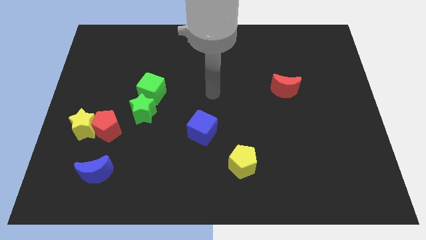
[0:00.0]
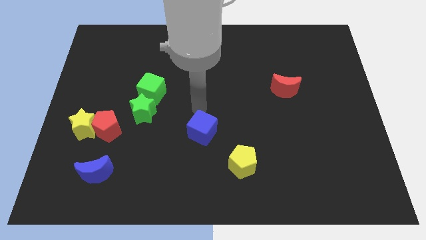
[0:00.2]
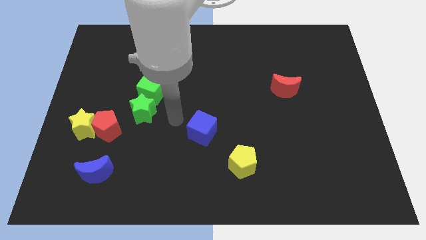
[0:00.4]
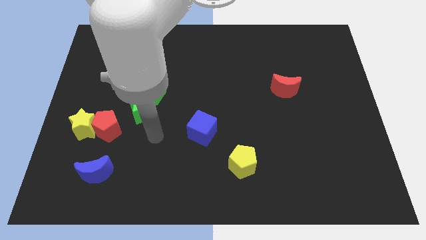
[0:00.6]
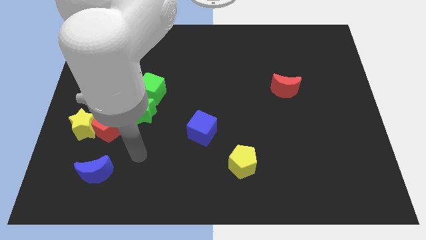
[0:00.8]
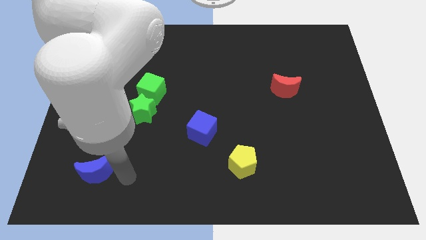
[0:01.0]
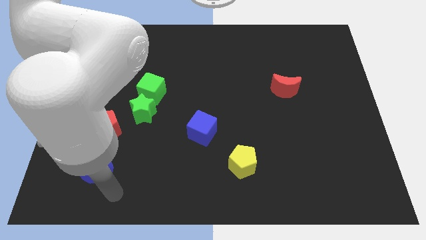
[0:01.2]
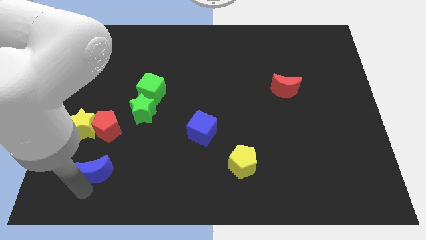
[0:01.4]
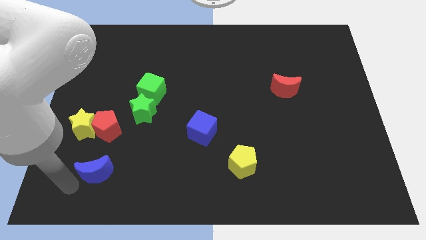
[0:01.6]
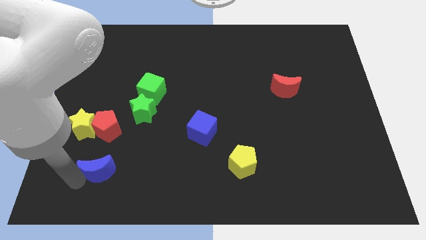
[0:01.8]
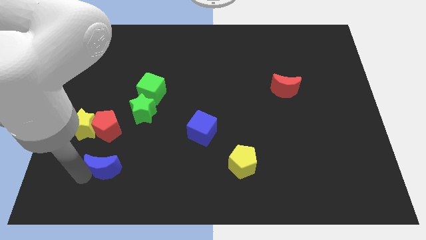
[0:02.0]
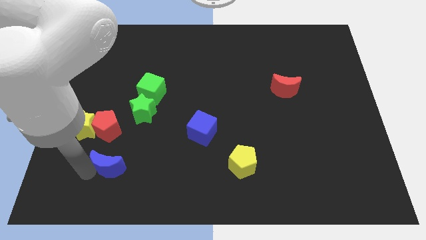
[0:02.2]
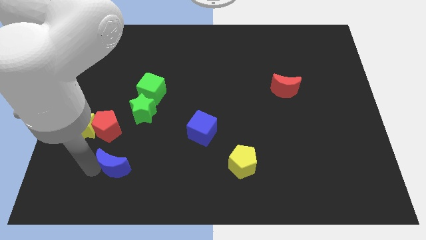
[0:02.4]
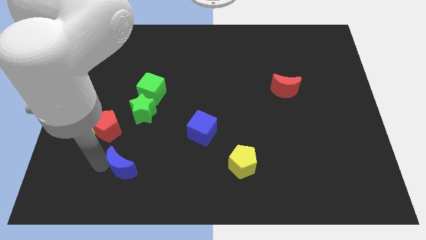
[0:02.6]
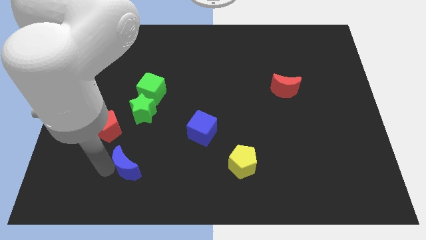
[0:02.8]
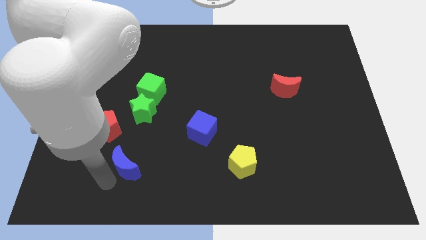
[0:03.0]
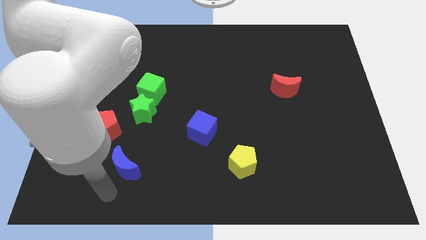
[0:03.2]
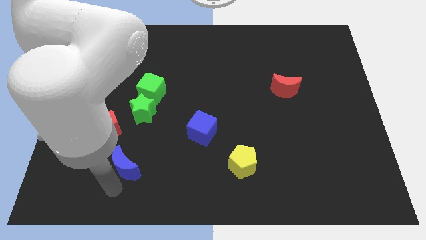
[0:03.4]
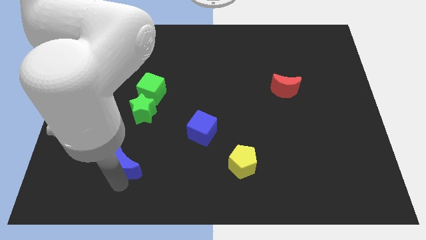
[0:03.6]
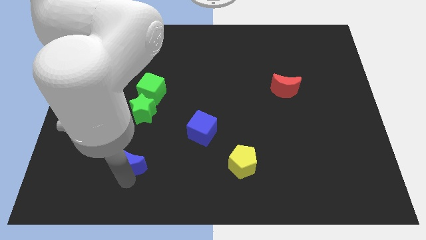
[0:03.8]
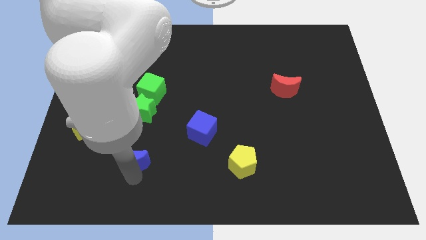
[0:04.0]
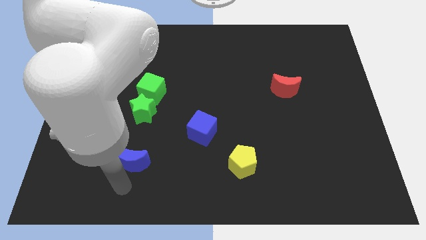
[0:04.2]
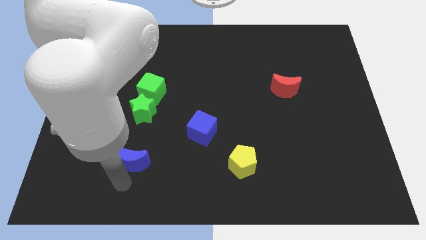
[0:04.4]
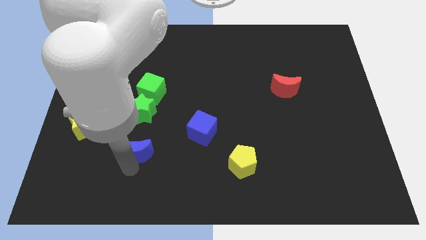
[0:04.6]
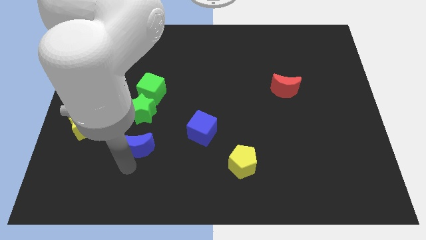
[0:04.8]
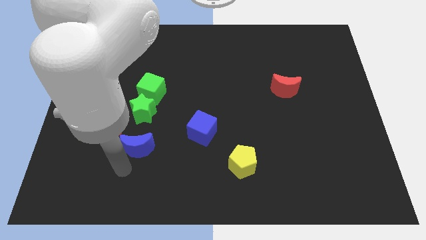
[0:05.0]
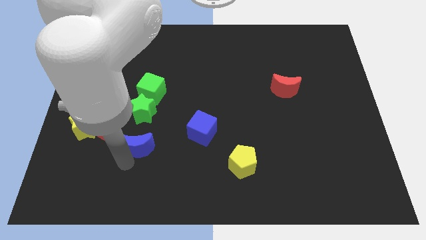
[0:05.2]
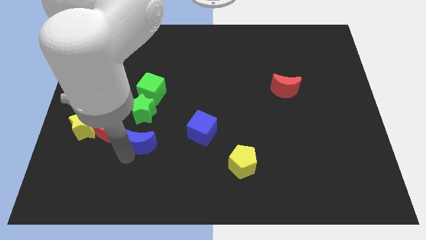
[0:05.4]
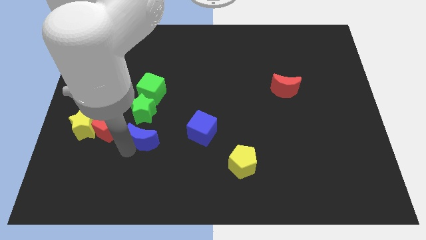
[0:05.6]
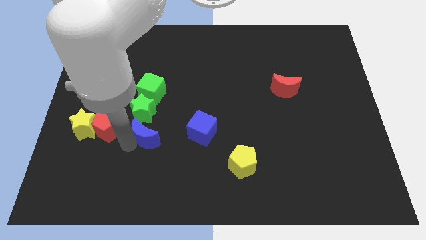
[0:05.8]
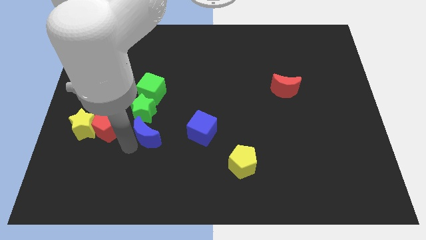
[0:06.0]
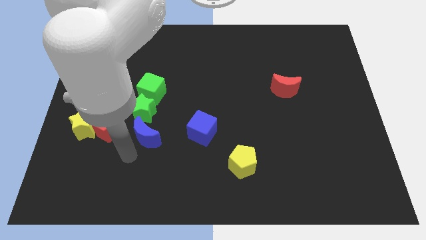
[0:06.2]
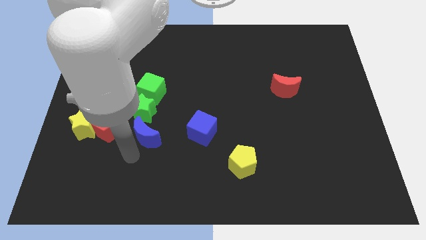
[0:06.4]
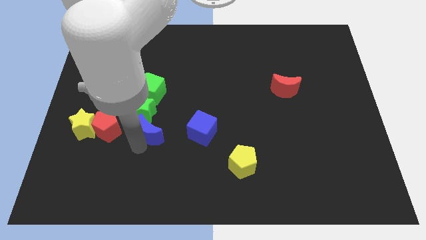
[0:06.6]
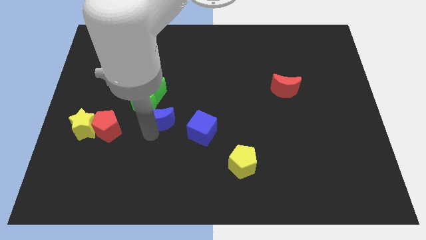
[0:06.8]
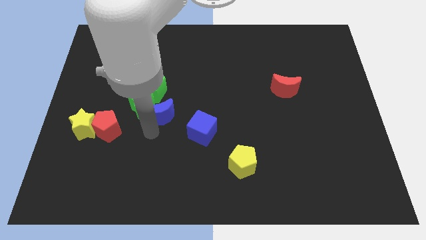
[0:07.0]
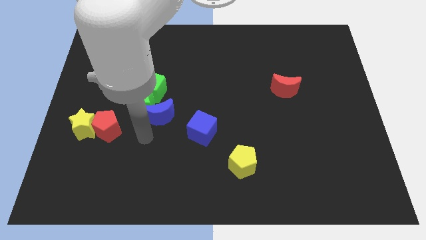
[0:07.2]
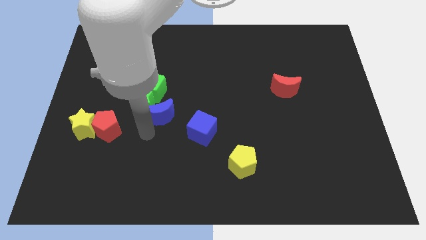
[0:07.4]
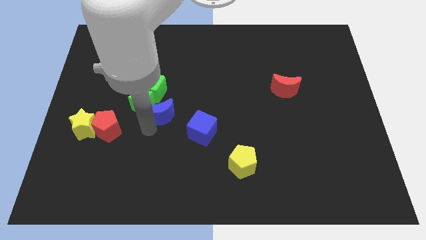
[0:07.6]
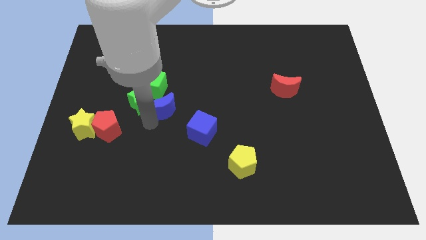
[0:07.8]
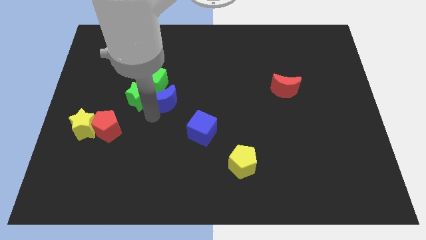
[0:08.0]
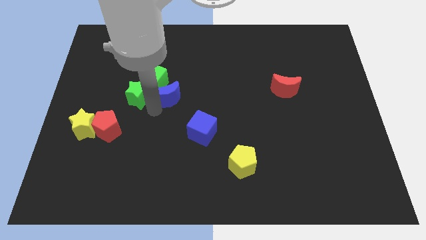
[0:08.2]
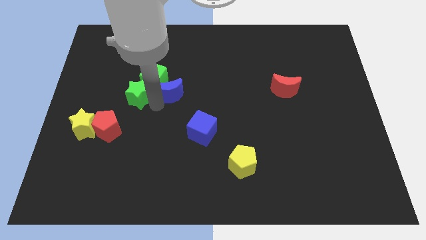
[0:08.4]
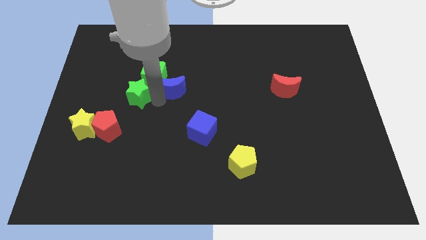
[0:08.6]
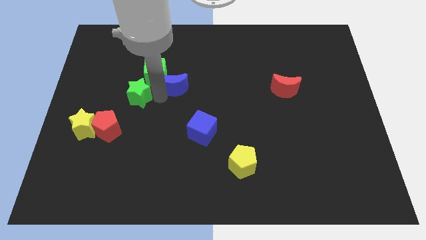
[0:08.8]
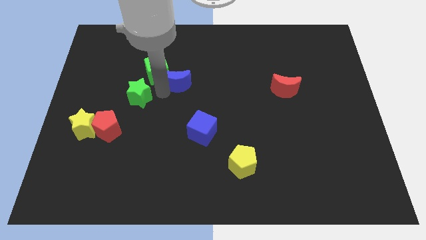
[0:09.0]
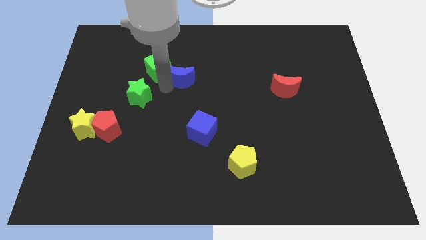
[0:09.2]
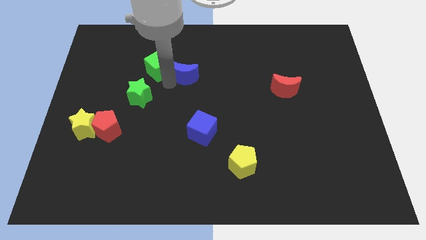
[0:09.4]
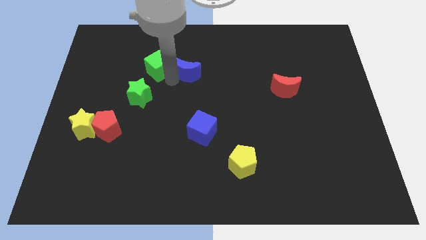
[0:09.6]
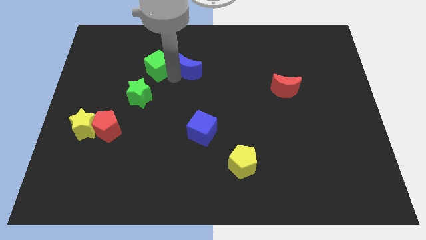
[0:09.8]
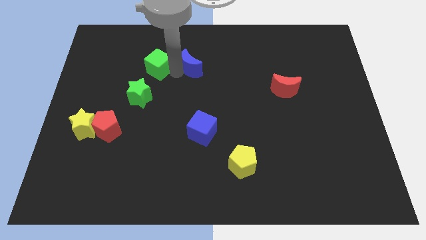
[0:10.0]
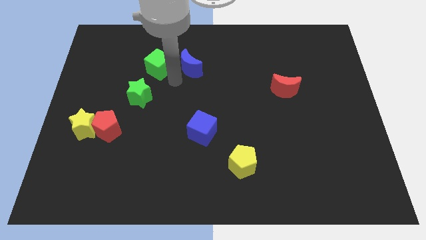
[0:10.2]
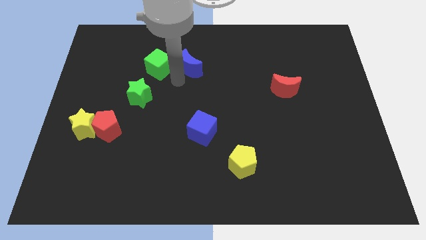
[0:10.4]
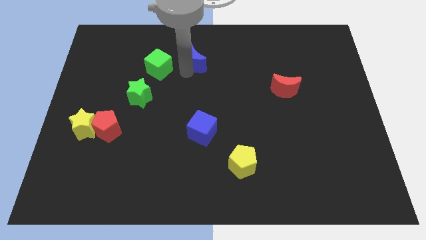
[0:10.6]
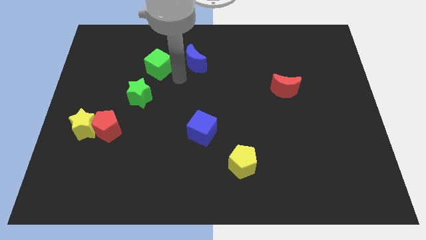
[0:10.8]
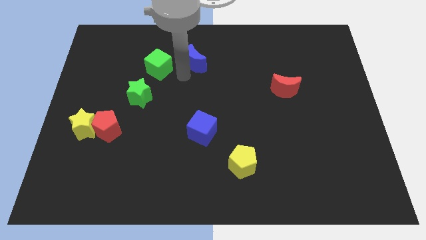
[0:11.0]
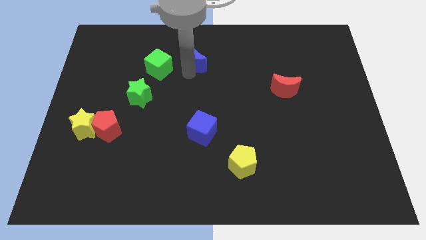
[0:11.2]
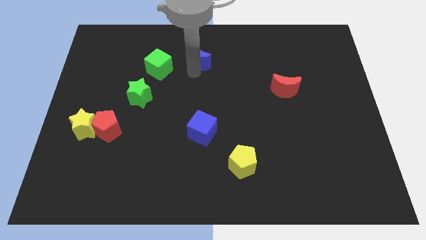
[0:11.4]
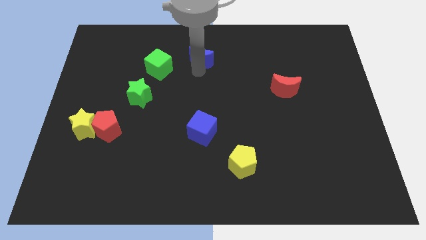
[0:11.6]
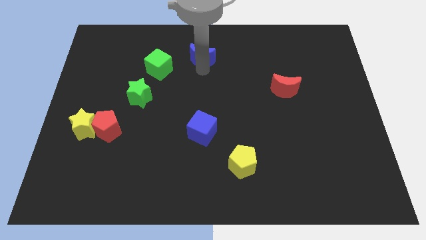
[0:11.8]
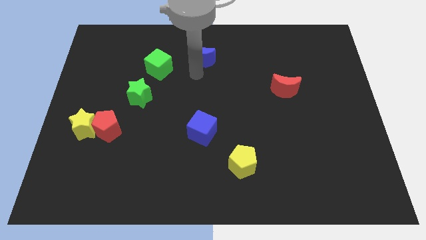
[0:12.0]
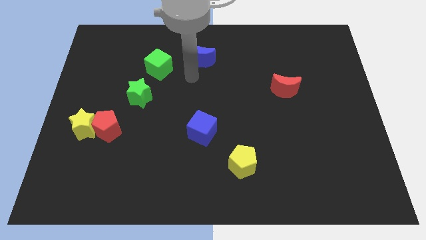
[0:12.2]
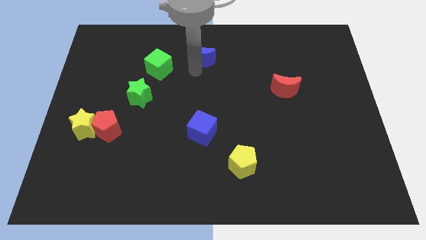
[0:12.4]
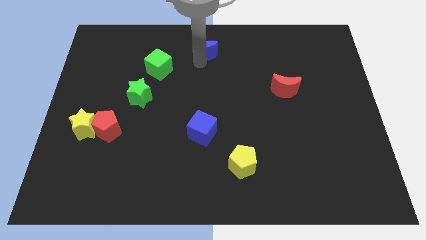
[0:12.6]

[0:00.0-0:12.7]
push the blue moon to the top side

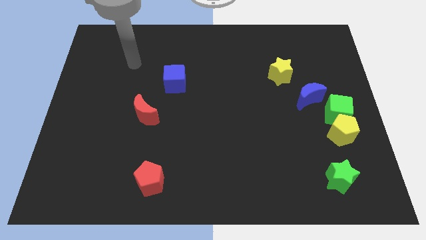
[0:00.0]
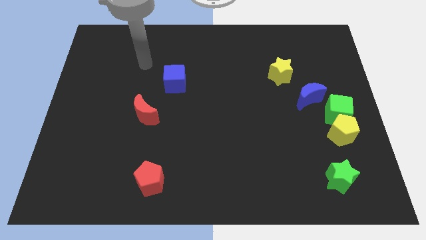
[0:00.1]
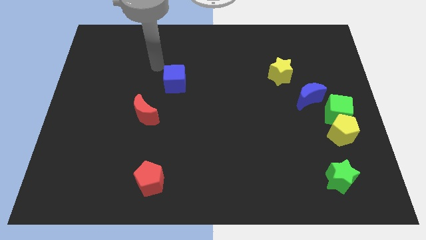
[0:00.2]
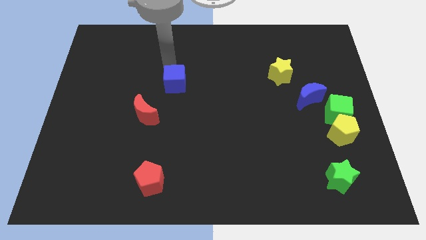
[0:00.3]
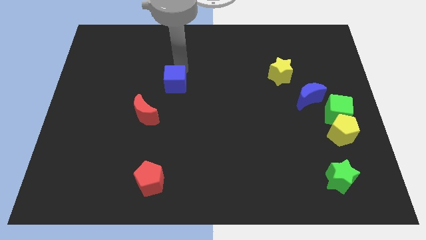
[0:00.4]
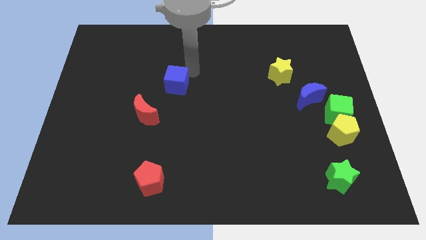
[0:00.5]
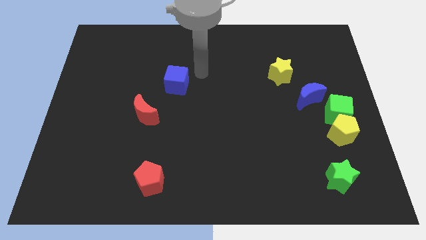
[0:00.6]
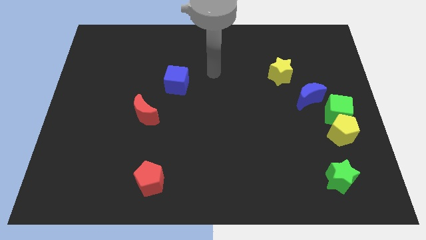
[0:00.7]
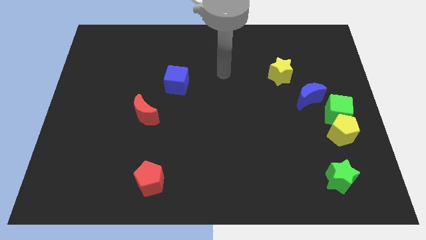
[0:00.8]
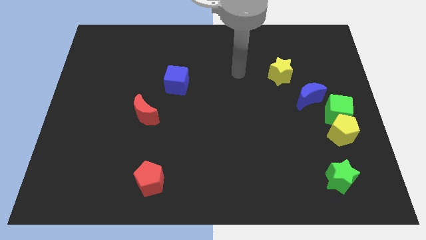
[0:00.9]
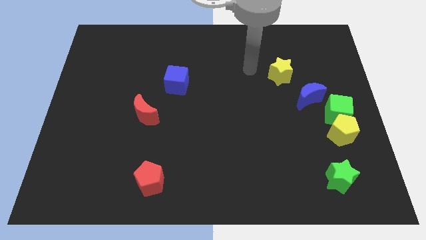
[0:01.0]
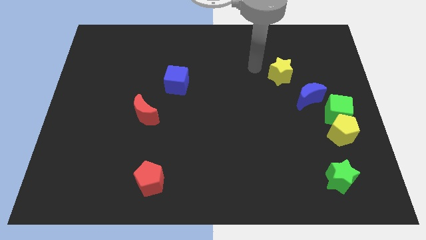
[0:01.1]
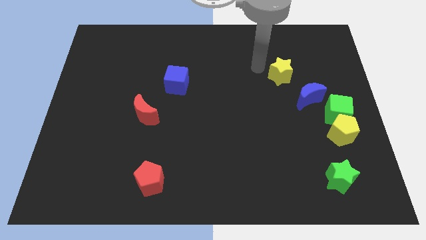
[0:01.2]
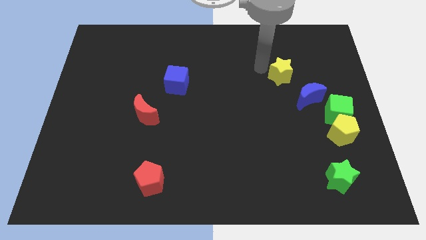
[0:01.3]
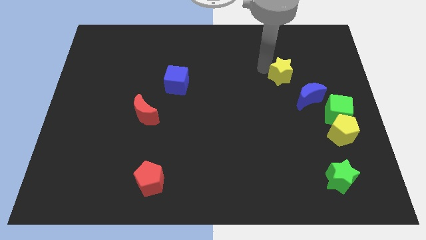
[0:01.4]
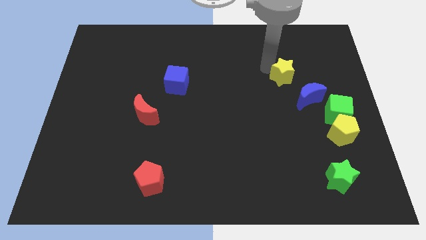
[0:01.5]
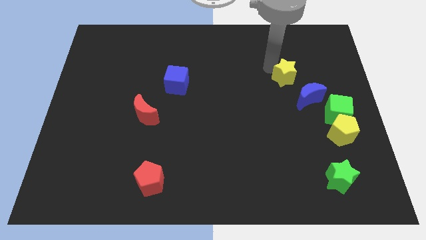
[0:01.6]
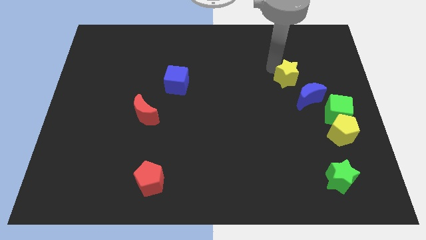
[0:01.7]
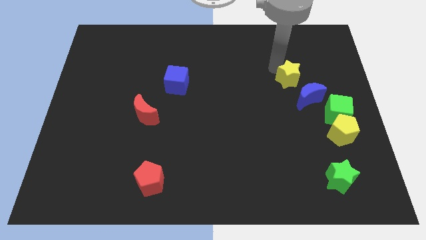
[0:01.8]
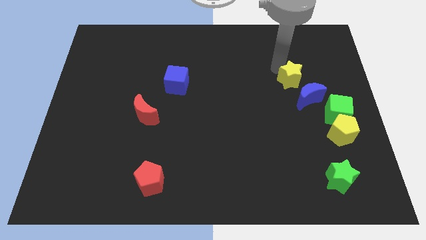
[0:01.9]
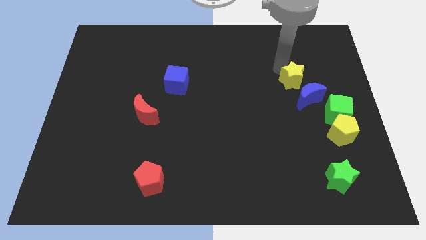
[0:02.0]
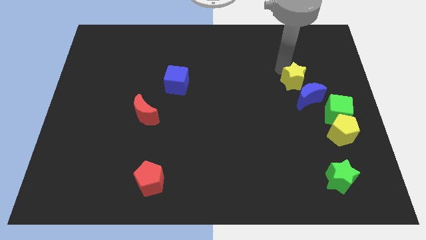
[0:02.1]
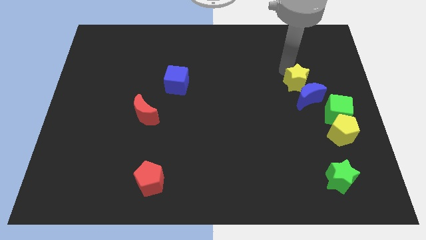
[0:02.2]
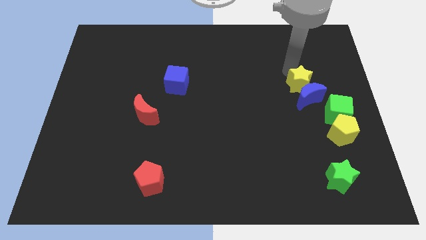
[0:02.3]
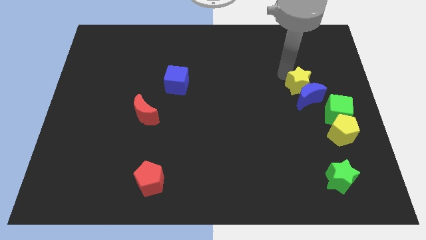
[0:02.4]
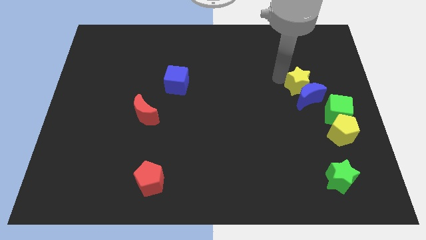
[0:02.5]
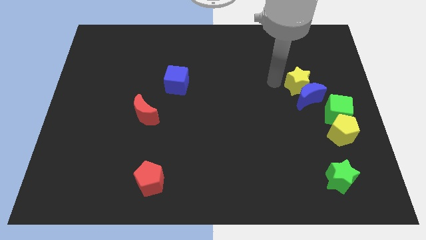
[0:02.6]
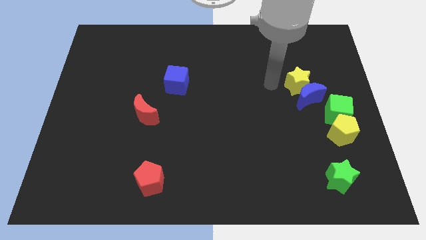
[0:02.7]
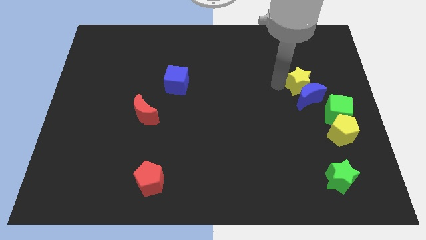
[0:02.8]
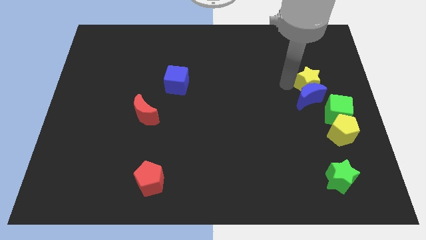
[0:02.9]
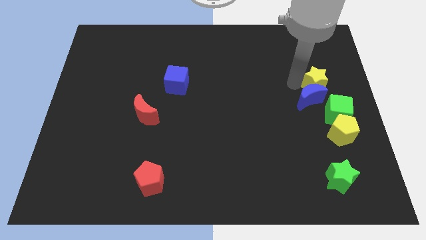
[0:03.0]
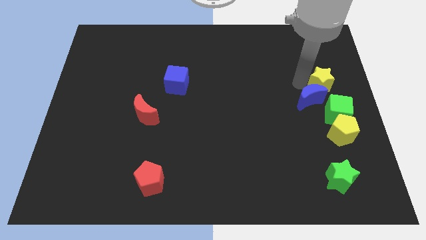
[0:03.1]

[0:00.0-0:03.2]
put the yellow star to the right side
